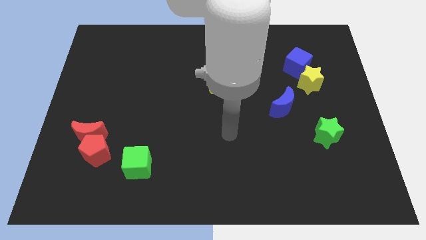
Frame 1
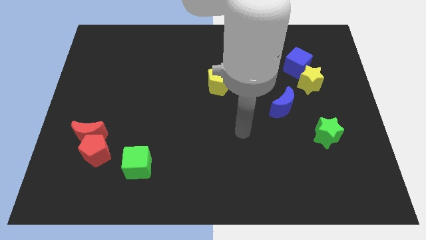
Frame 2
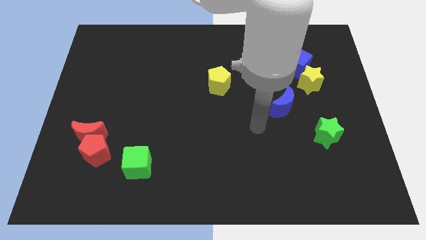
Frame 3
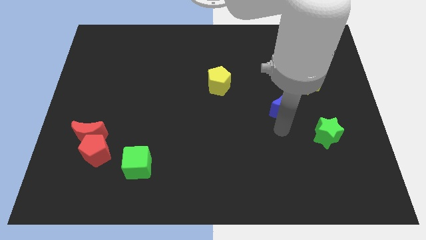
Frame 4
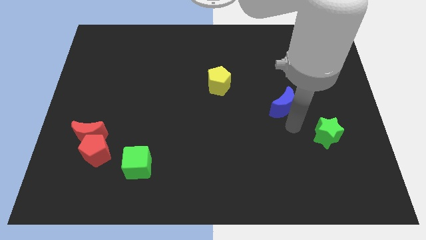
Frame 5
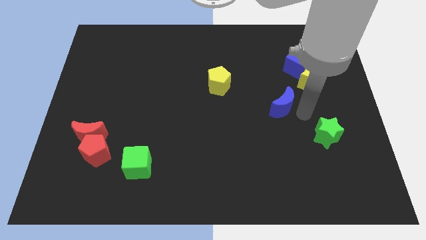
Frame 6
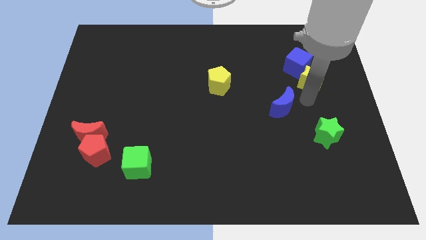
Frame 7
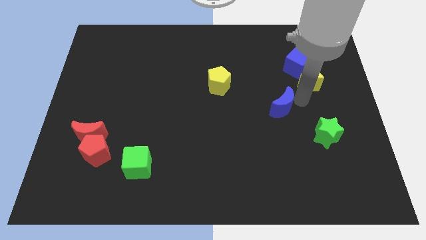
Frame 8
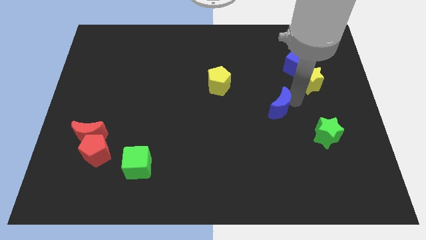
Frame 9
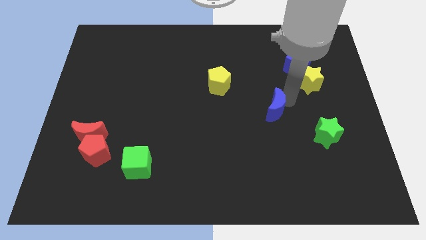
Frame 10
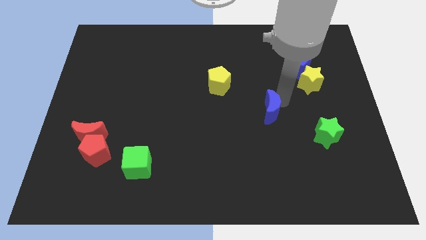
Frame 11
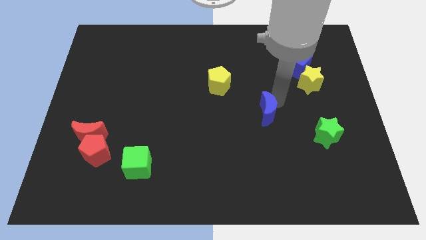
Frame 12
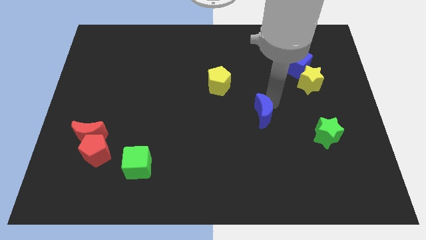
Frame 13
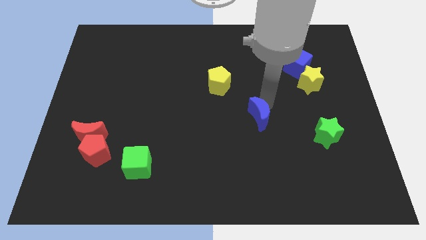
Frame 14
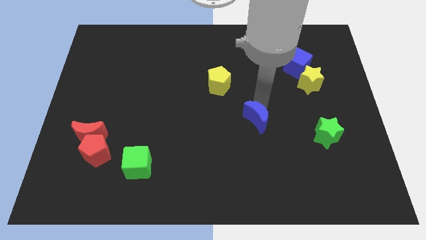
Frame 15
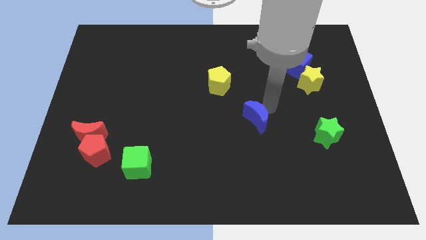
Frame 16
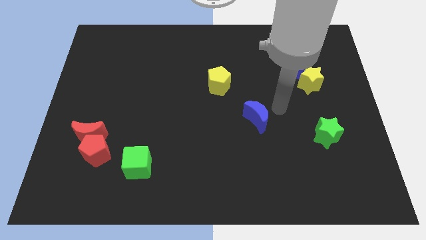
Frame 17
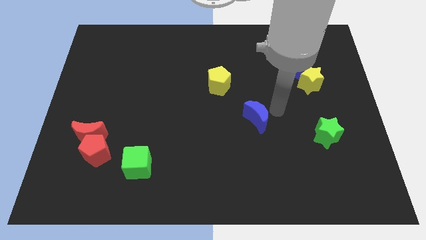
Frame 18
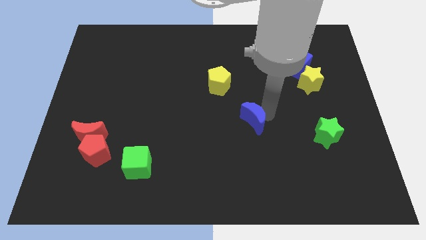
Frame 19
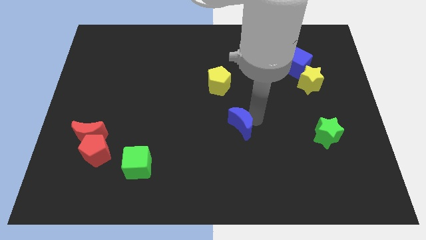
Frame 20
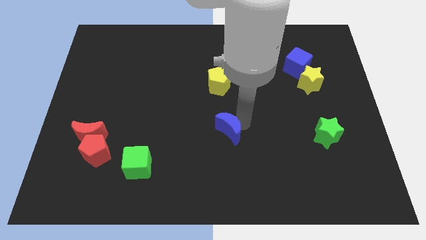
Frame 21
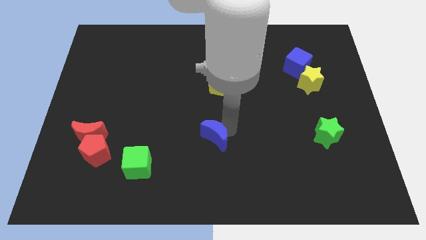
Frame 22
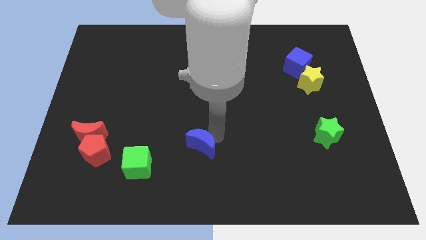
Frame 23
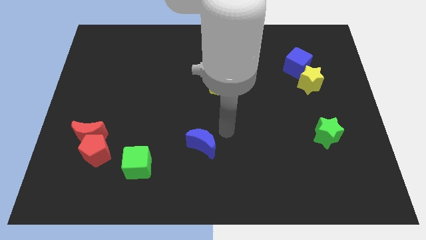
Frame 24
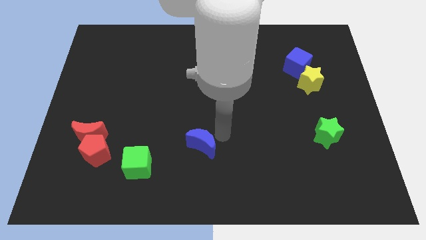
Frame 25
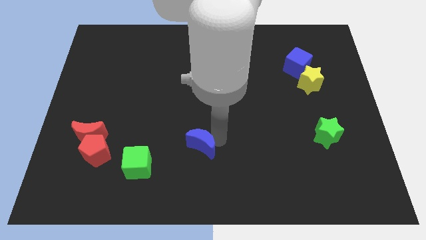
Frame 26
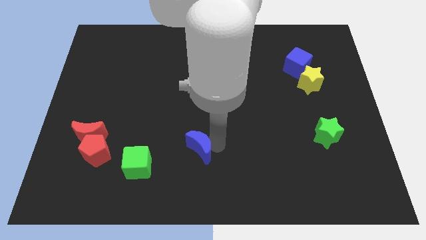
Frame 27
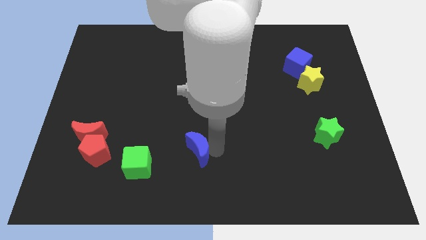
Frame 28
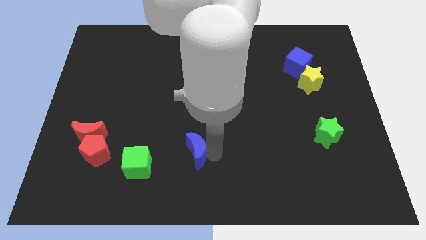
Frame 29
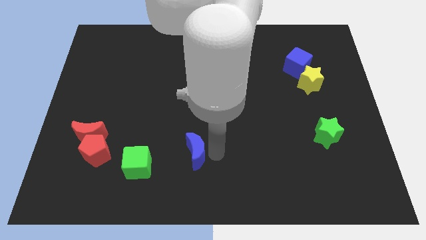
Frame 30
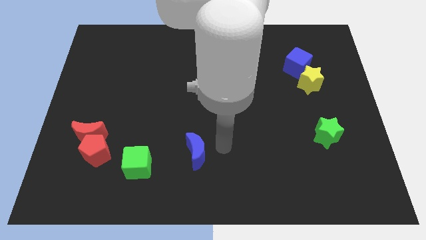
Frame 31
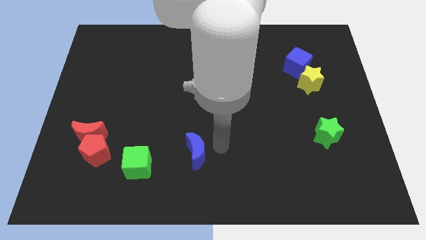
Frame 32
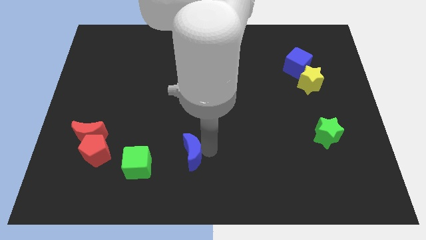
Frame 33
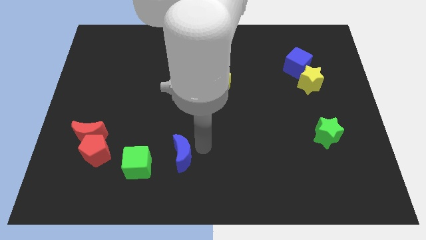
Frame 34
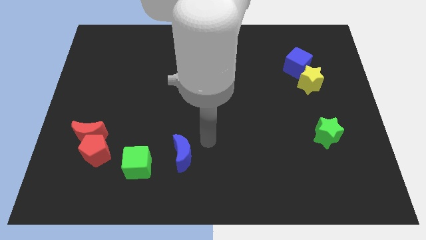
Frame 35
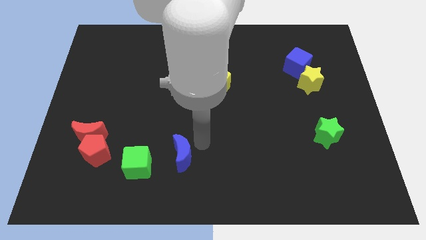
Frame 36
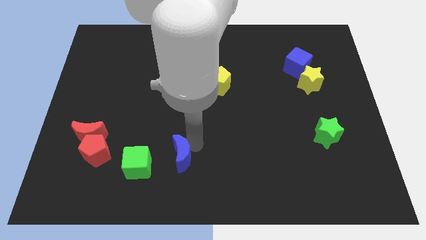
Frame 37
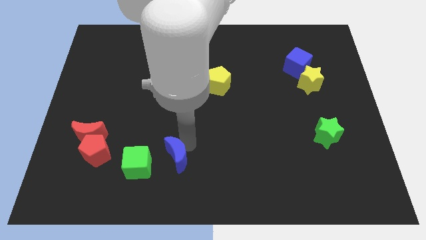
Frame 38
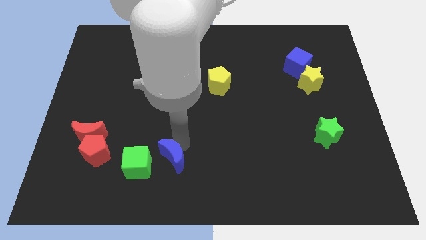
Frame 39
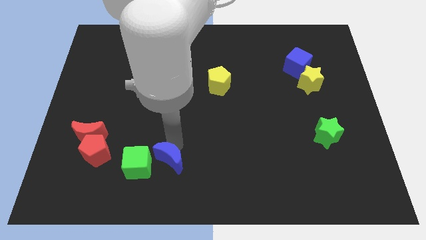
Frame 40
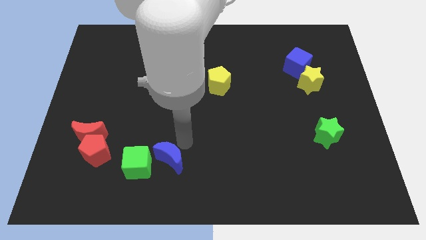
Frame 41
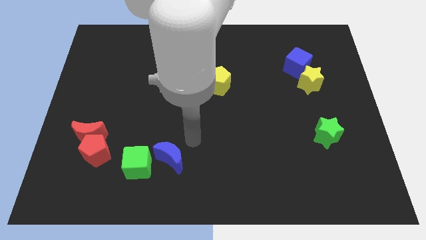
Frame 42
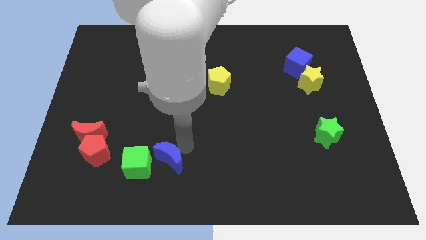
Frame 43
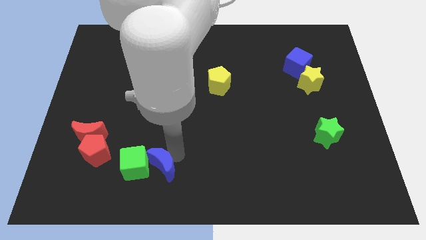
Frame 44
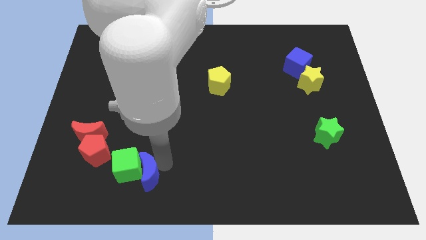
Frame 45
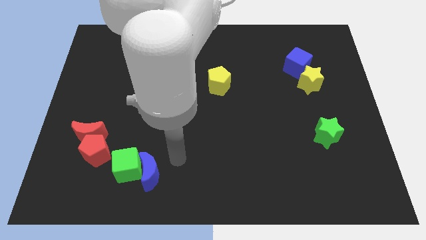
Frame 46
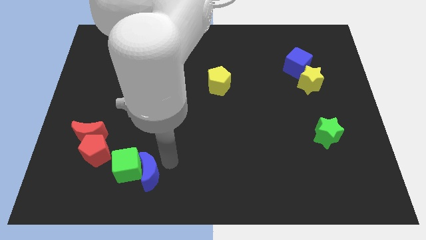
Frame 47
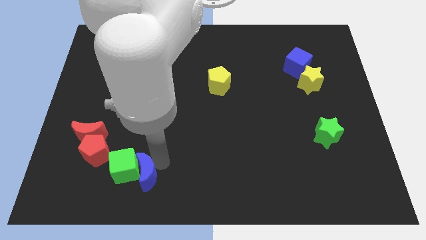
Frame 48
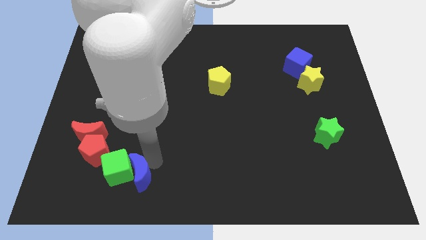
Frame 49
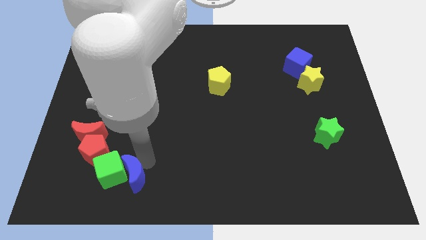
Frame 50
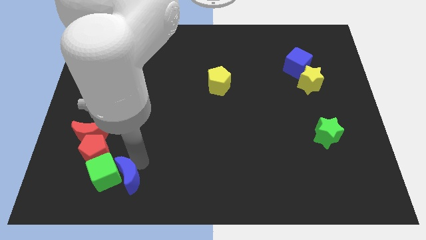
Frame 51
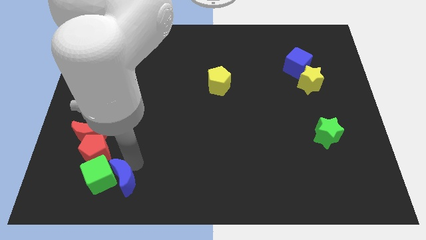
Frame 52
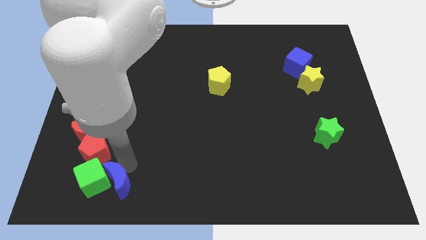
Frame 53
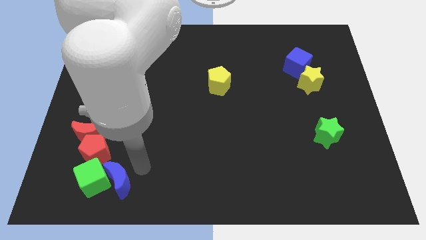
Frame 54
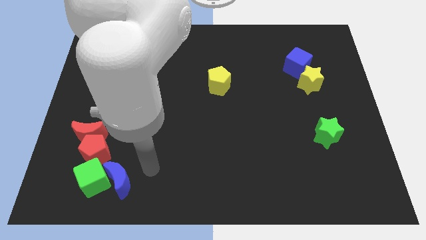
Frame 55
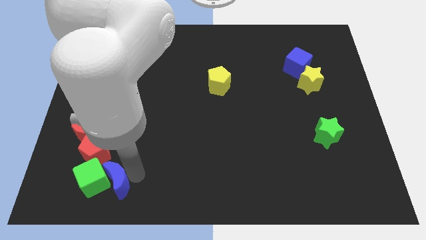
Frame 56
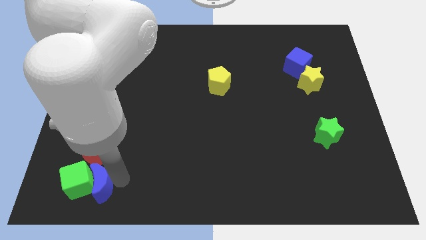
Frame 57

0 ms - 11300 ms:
push the blue moon to the bottom of the red moon

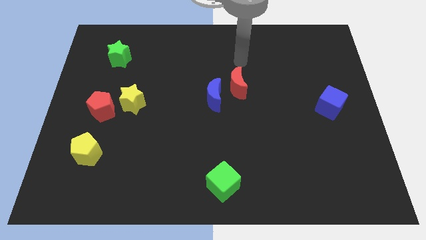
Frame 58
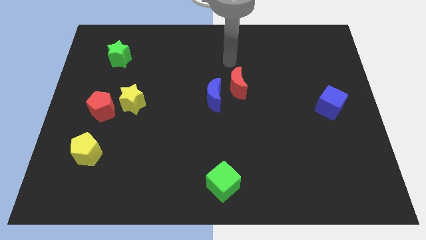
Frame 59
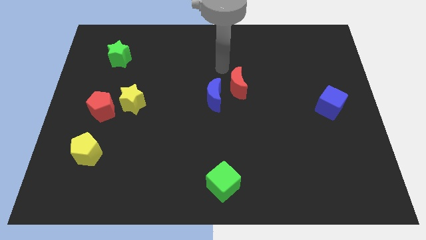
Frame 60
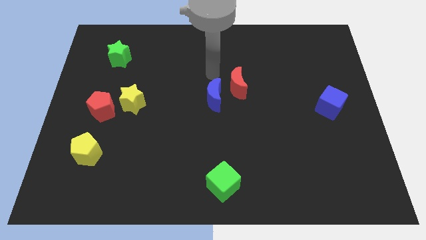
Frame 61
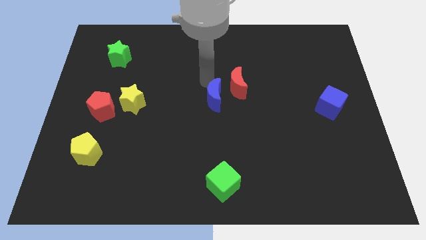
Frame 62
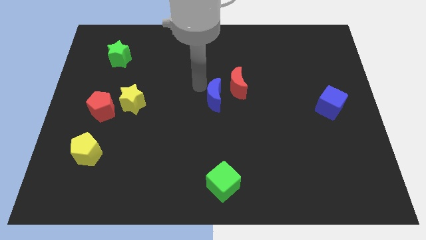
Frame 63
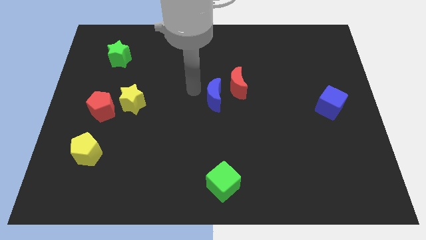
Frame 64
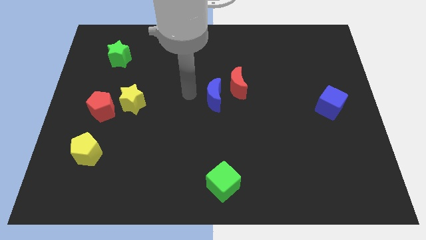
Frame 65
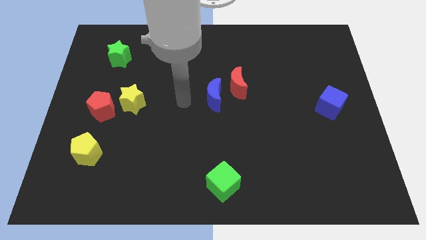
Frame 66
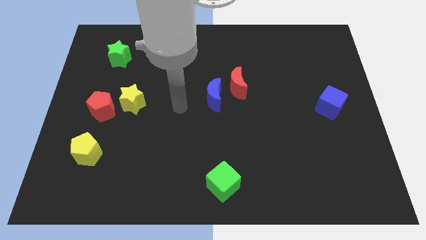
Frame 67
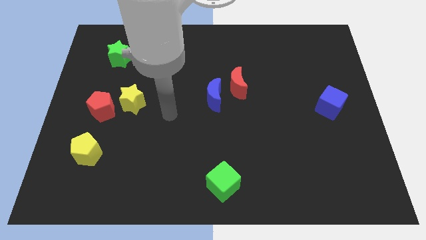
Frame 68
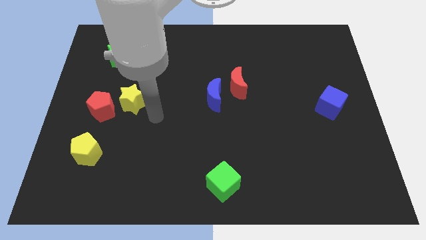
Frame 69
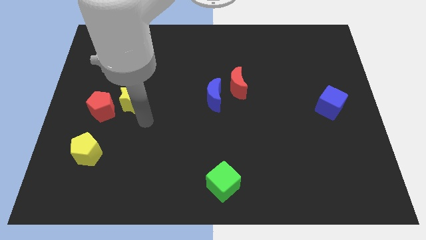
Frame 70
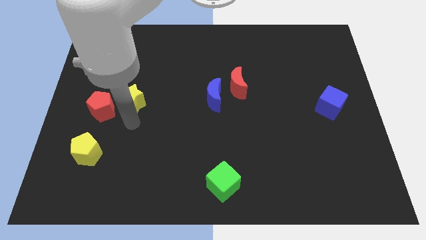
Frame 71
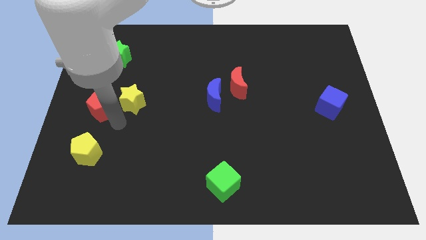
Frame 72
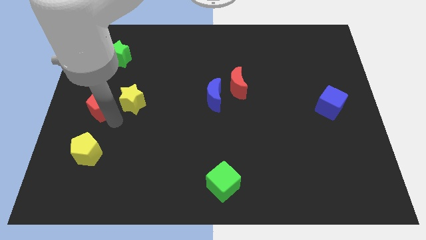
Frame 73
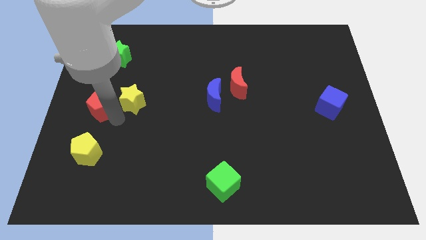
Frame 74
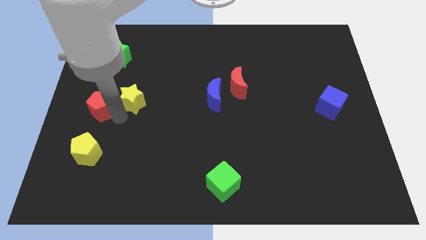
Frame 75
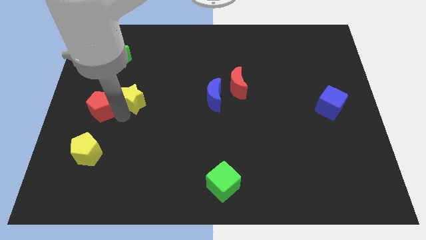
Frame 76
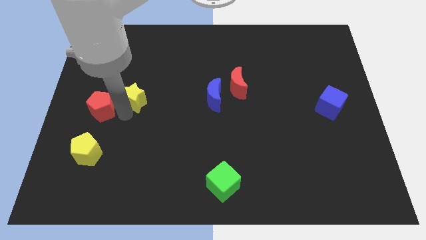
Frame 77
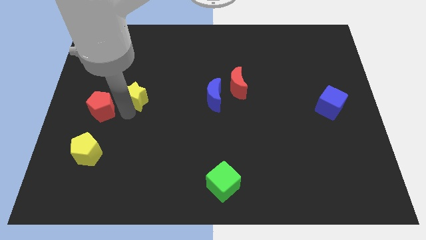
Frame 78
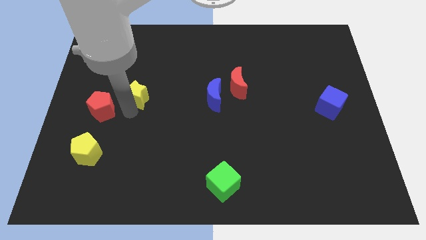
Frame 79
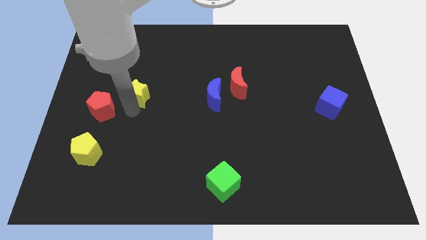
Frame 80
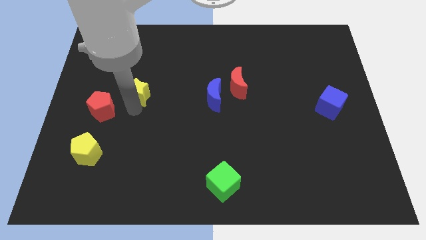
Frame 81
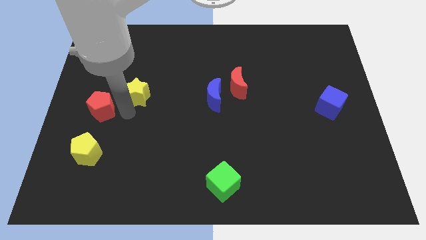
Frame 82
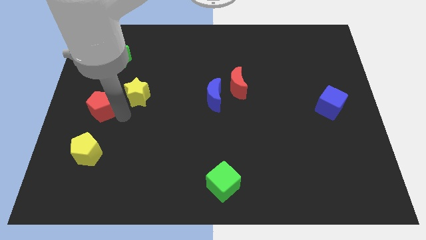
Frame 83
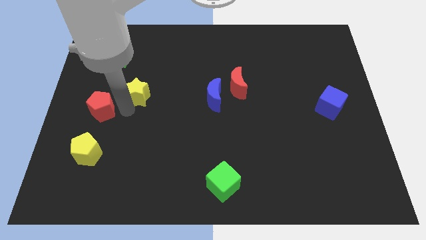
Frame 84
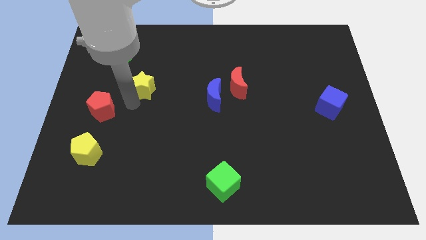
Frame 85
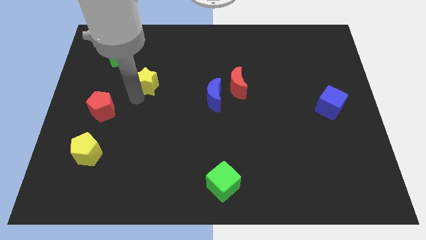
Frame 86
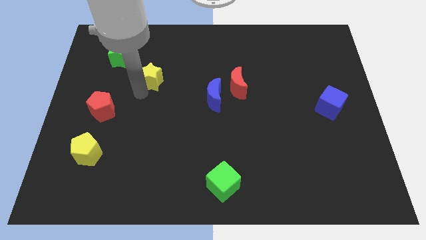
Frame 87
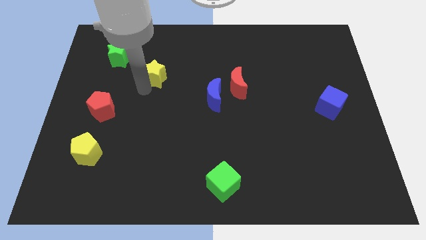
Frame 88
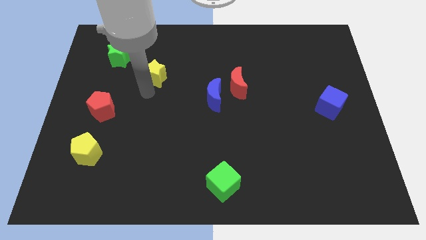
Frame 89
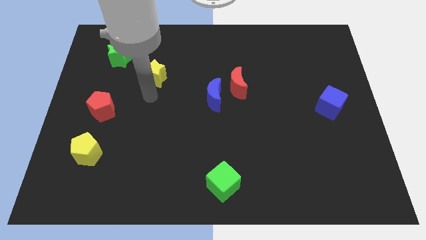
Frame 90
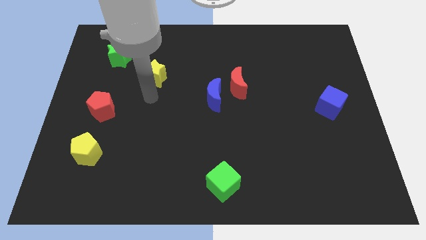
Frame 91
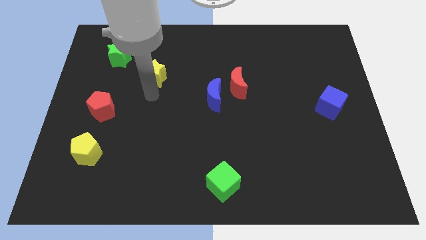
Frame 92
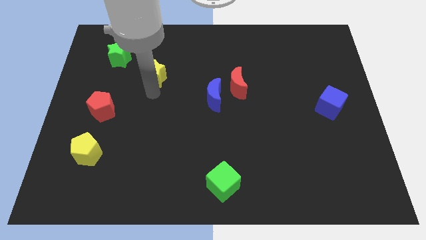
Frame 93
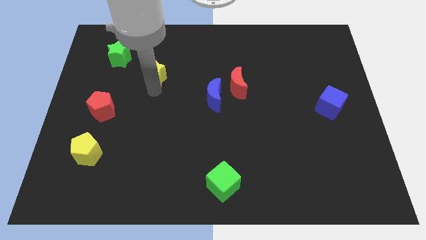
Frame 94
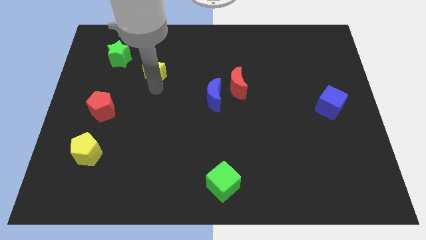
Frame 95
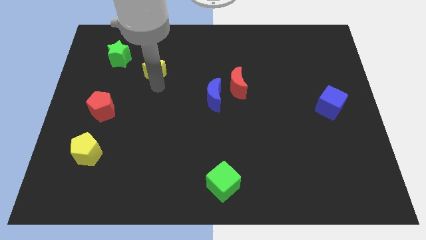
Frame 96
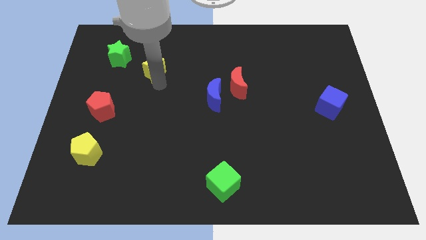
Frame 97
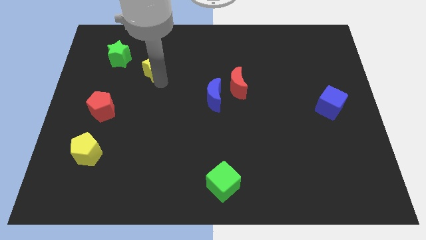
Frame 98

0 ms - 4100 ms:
move the yellow star just right of the green star
